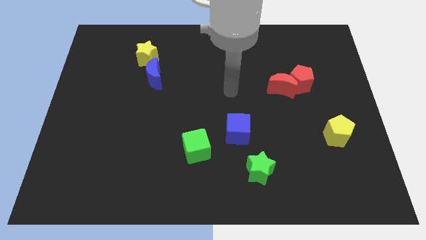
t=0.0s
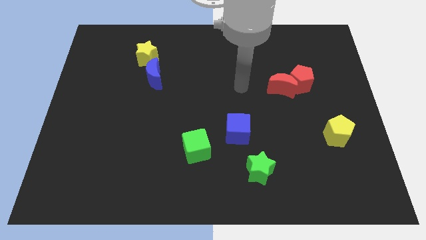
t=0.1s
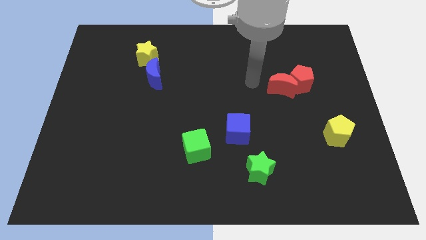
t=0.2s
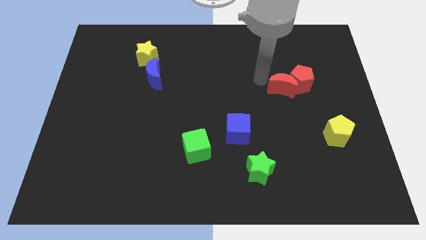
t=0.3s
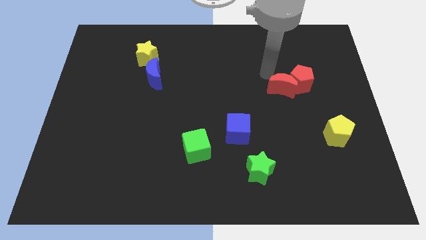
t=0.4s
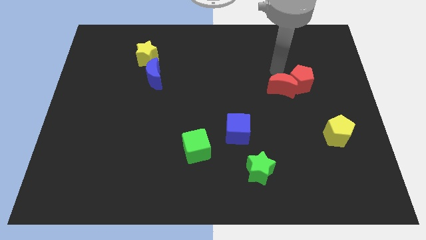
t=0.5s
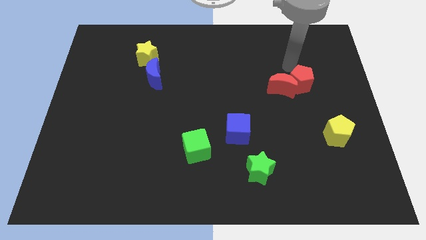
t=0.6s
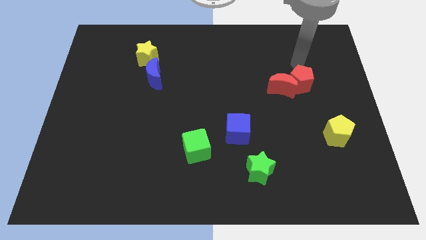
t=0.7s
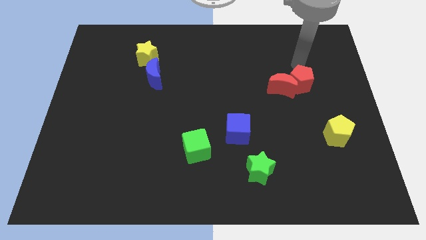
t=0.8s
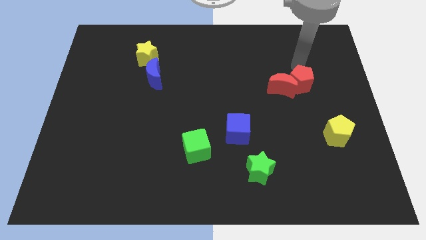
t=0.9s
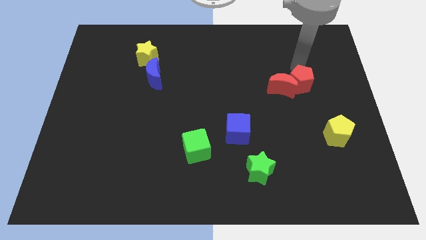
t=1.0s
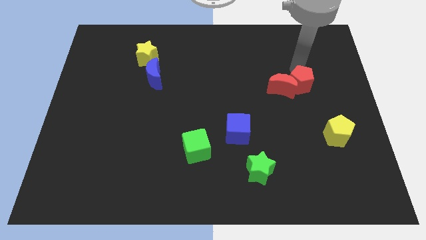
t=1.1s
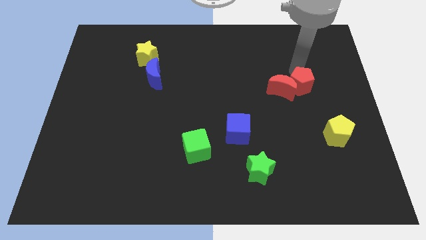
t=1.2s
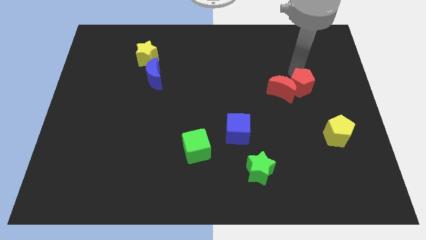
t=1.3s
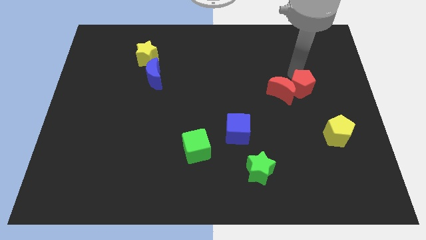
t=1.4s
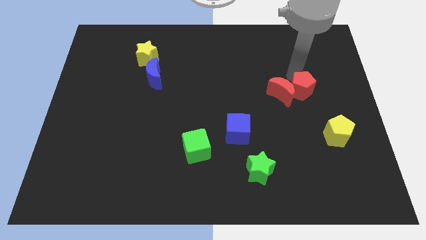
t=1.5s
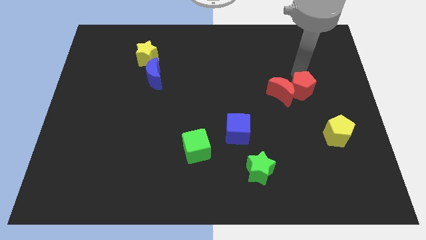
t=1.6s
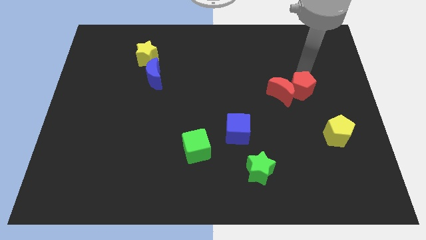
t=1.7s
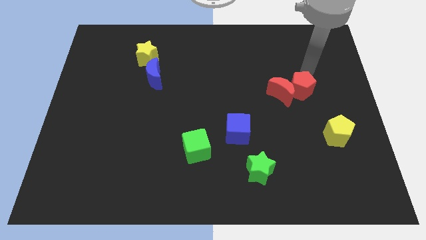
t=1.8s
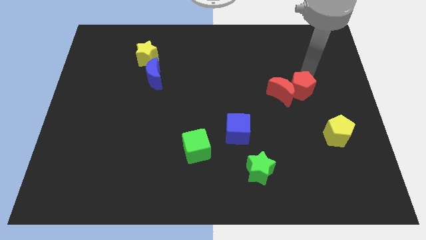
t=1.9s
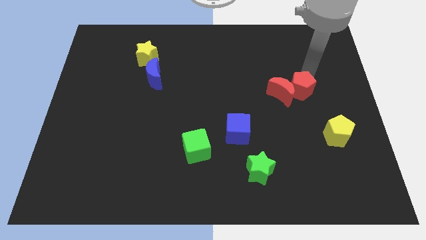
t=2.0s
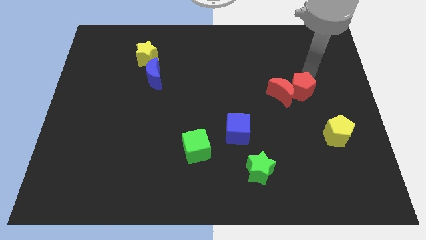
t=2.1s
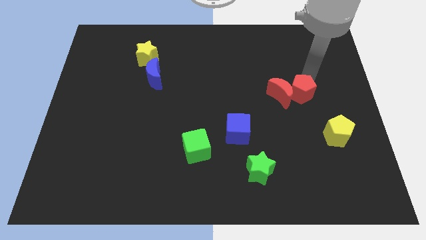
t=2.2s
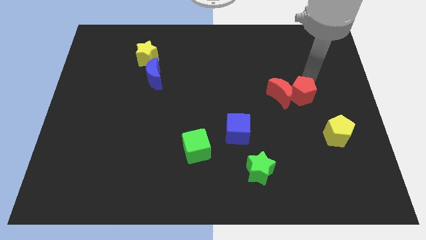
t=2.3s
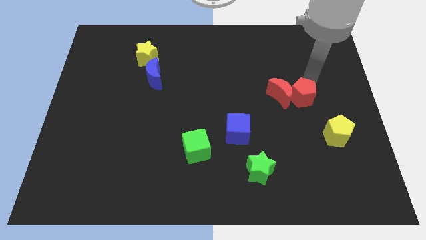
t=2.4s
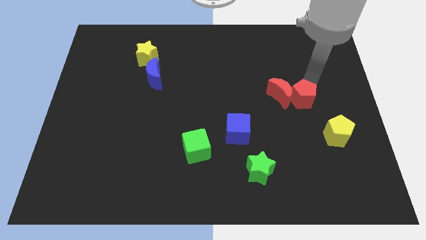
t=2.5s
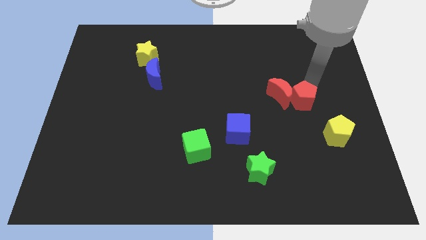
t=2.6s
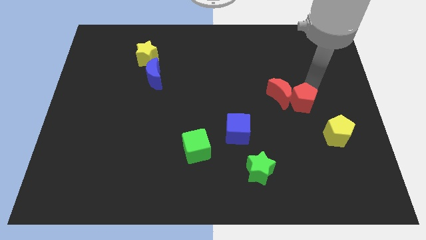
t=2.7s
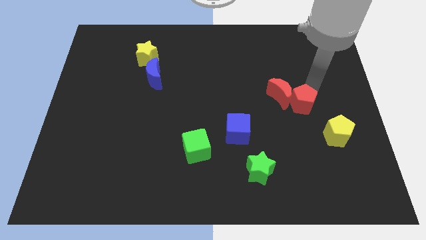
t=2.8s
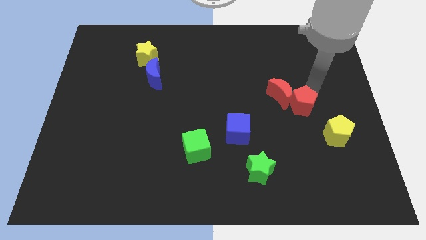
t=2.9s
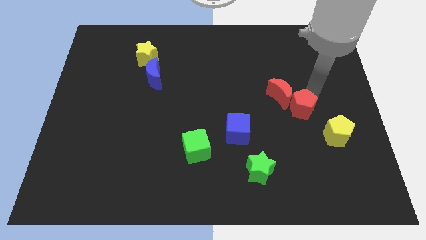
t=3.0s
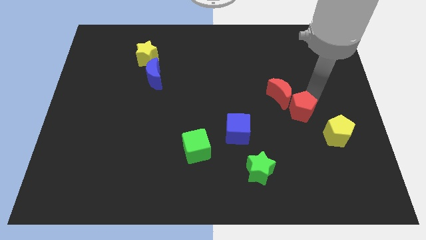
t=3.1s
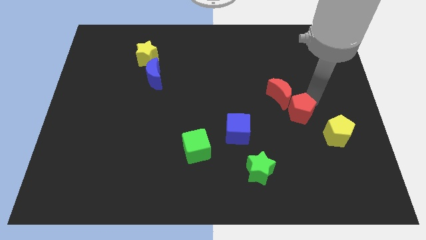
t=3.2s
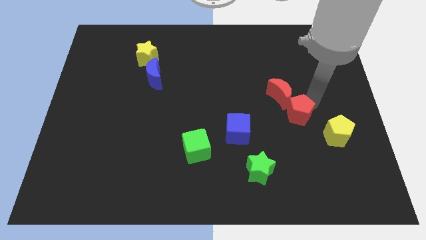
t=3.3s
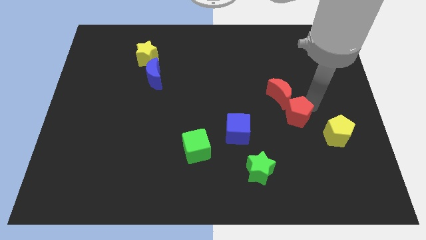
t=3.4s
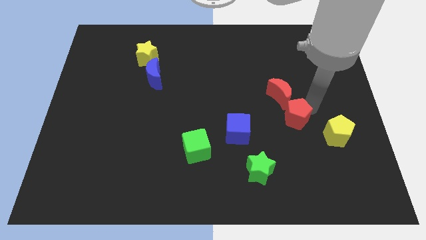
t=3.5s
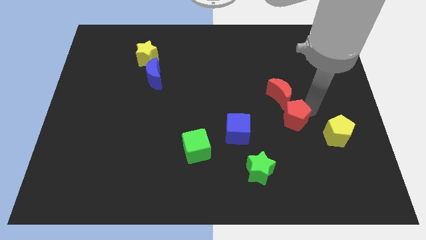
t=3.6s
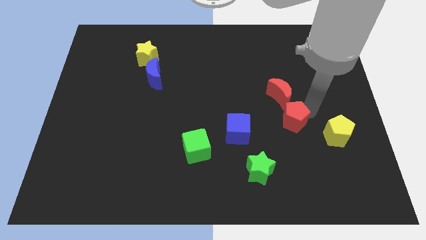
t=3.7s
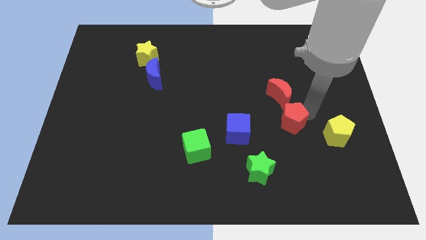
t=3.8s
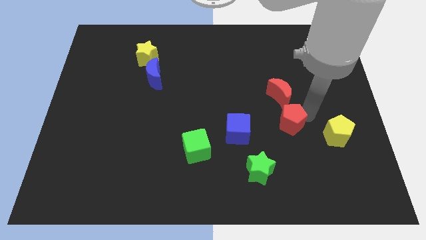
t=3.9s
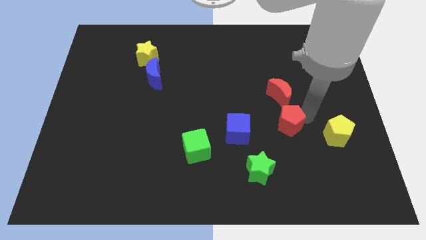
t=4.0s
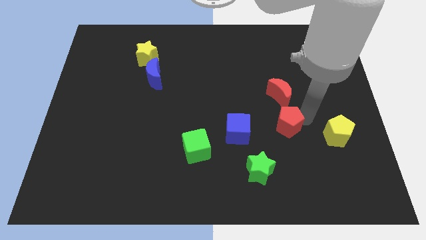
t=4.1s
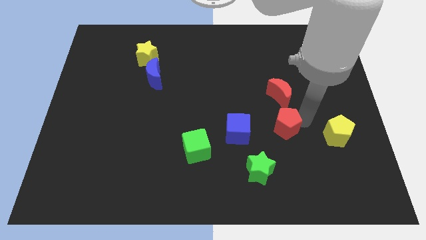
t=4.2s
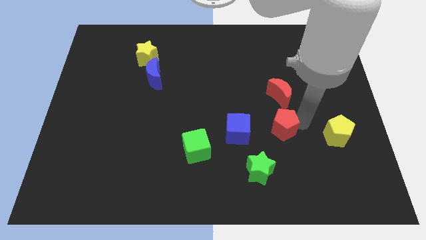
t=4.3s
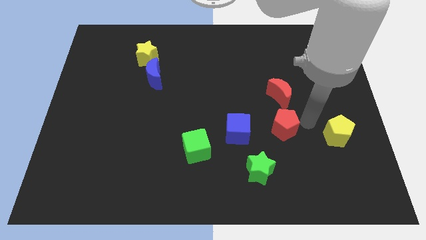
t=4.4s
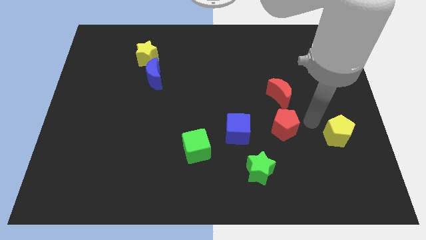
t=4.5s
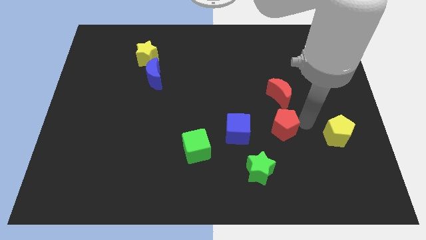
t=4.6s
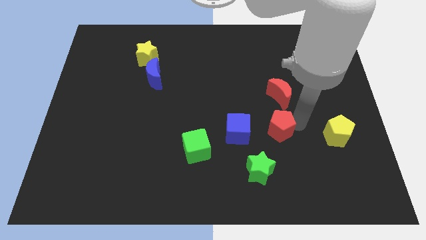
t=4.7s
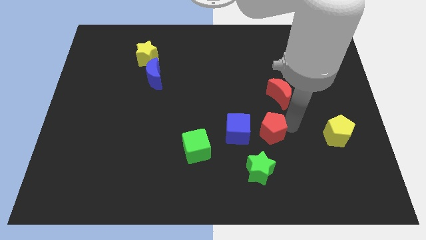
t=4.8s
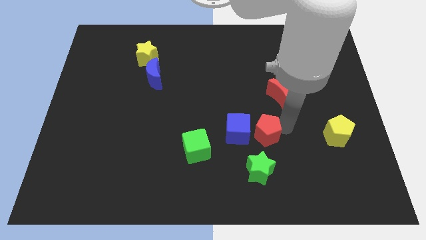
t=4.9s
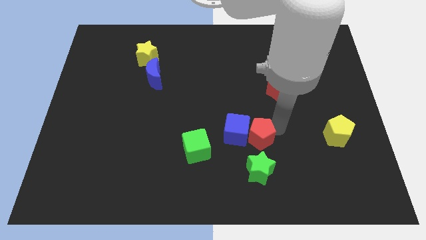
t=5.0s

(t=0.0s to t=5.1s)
push the red pentagon to the right side of the green cube

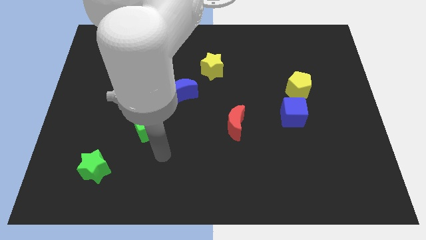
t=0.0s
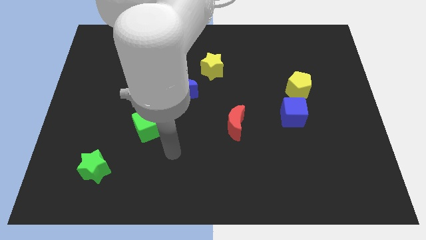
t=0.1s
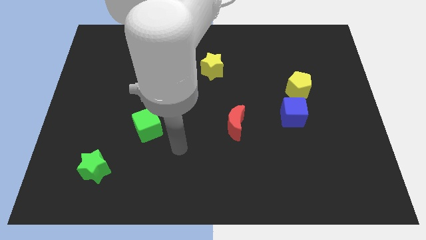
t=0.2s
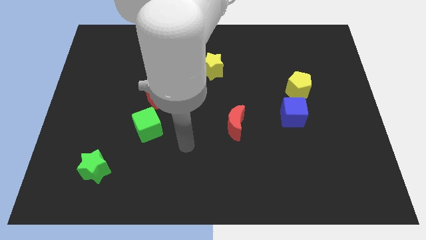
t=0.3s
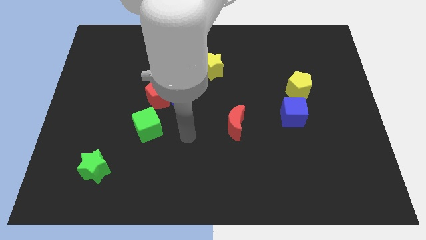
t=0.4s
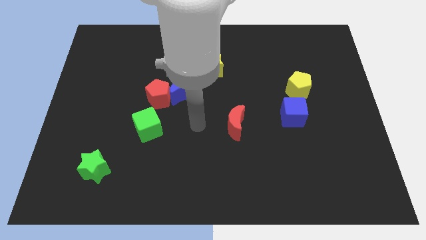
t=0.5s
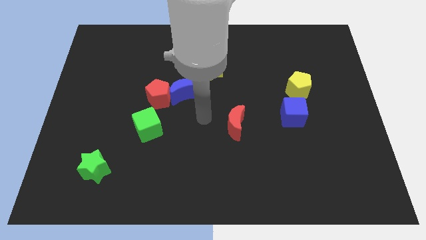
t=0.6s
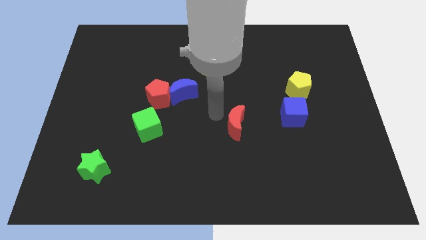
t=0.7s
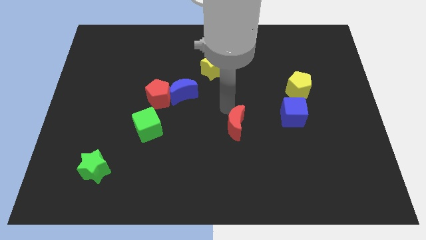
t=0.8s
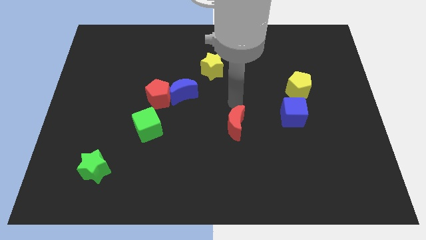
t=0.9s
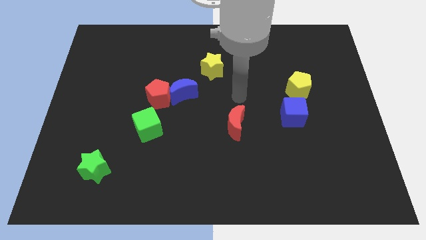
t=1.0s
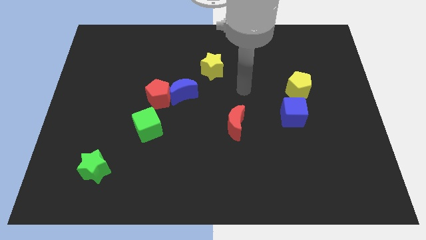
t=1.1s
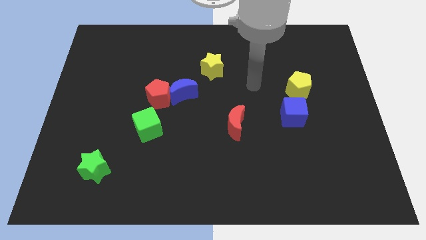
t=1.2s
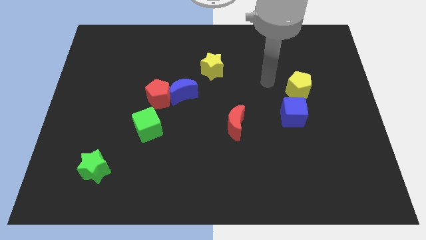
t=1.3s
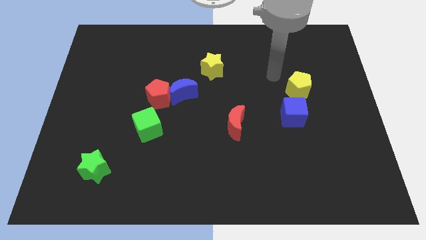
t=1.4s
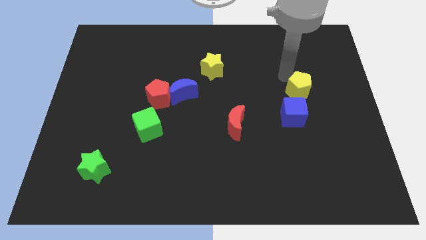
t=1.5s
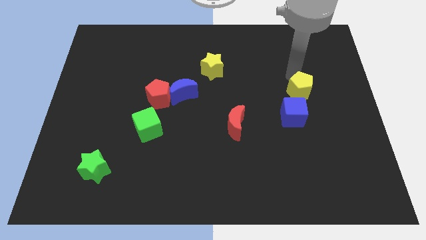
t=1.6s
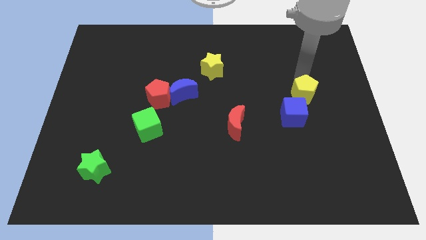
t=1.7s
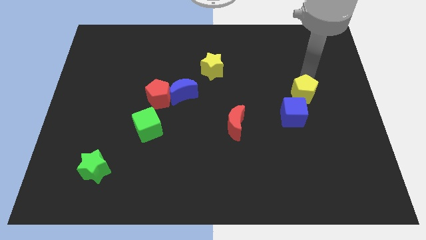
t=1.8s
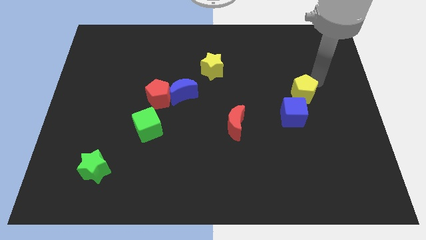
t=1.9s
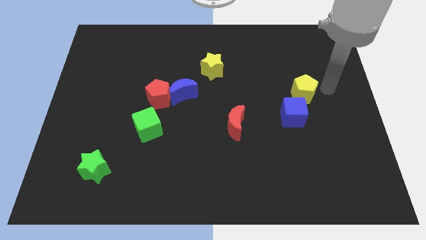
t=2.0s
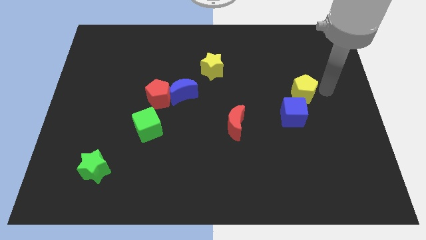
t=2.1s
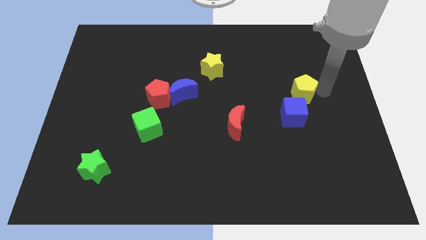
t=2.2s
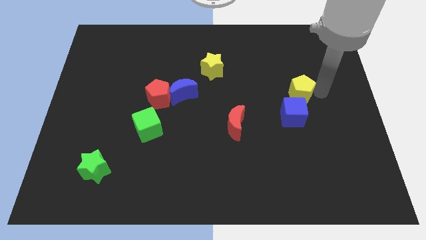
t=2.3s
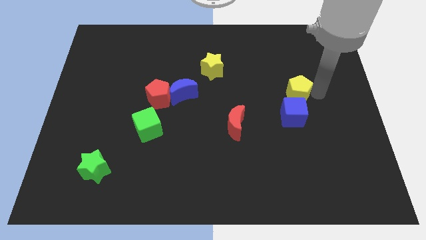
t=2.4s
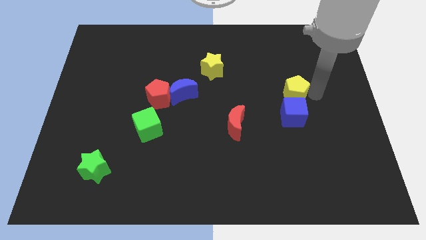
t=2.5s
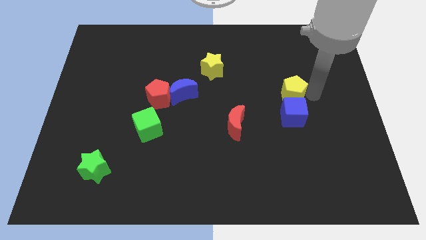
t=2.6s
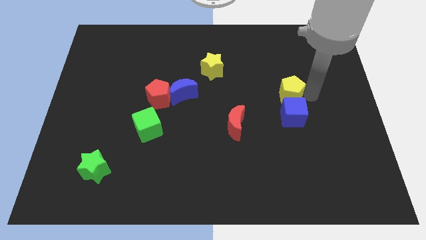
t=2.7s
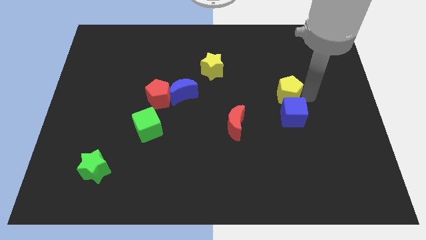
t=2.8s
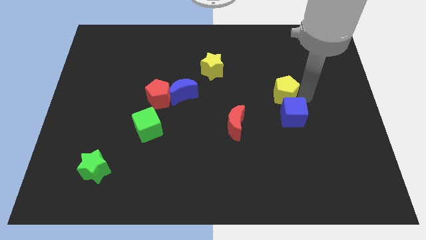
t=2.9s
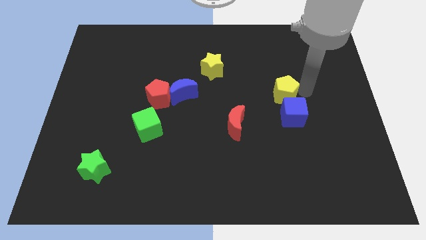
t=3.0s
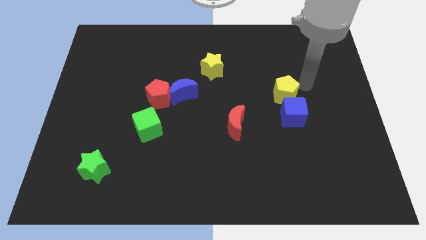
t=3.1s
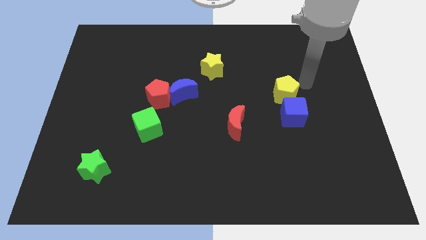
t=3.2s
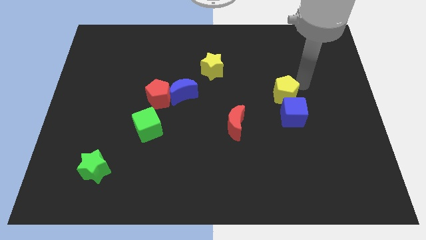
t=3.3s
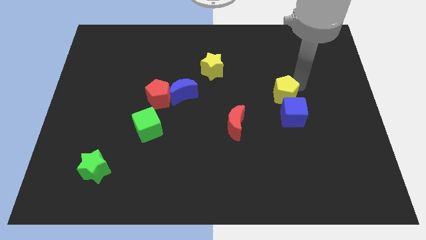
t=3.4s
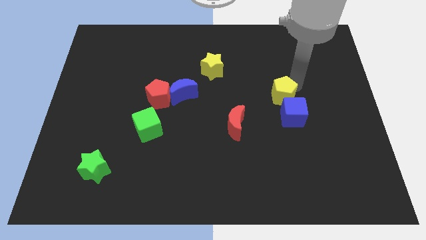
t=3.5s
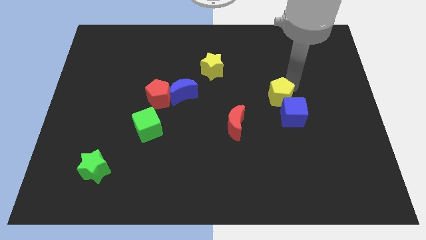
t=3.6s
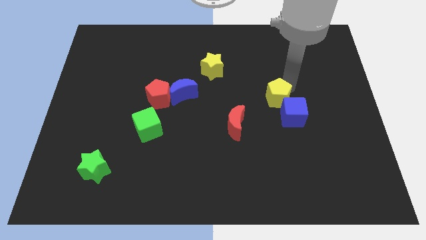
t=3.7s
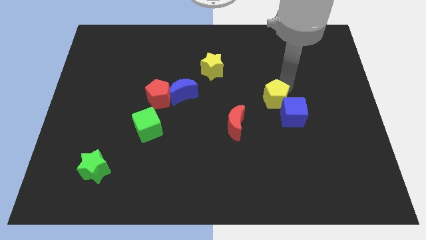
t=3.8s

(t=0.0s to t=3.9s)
slide the yellow pentagon to the top right of the red moon
